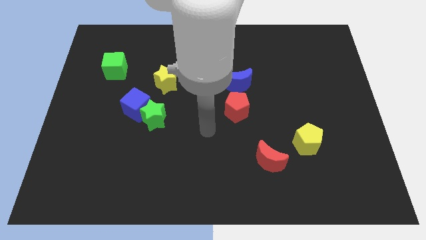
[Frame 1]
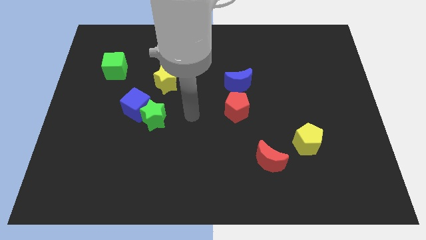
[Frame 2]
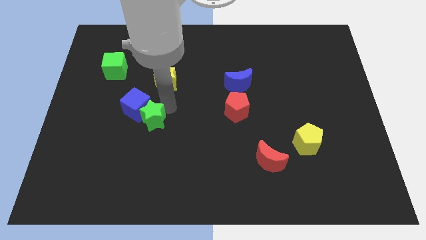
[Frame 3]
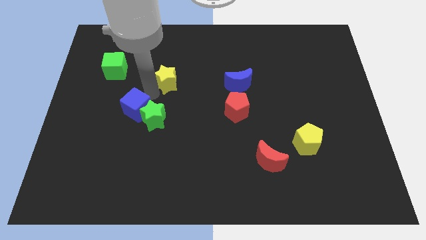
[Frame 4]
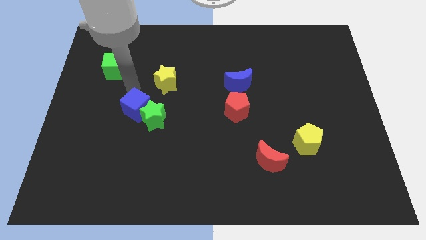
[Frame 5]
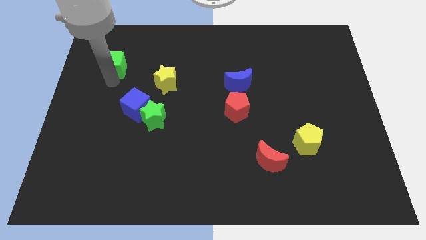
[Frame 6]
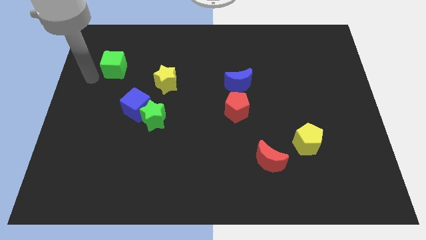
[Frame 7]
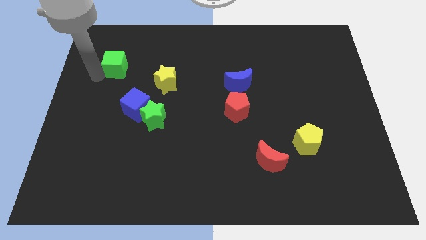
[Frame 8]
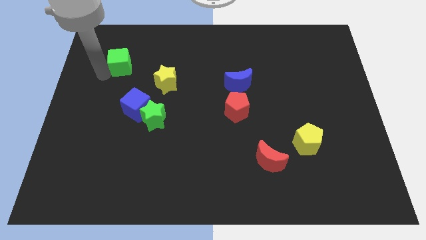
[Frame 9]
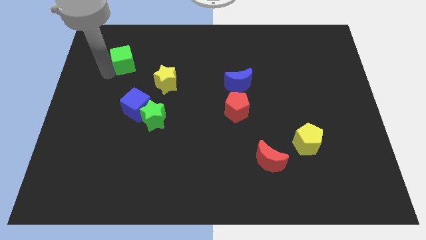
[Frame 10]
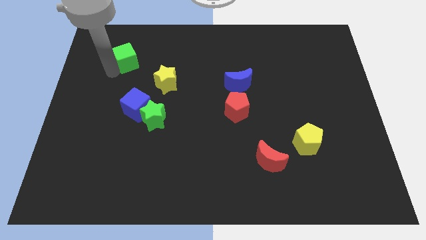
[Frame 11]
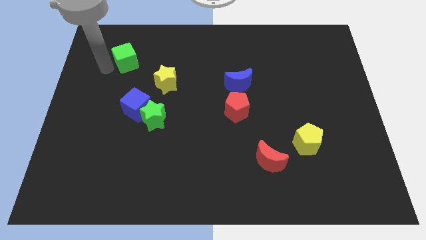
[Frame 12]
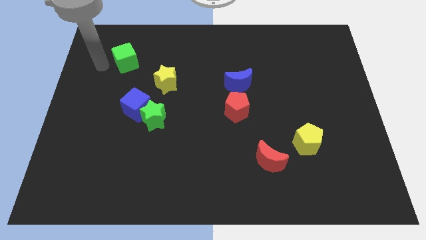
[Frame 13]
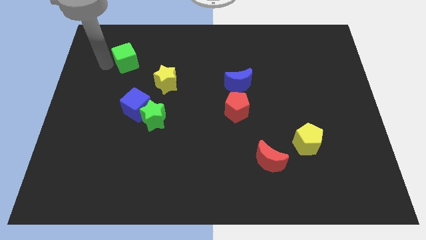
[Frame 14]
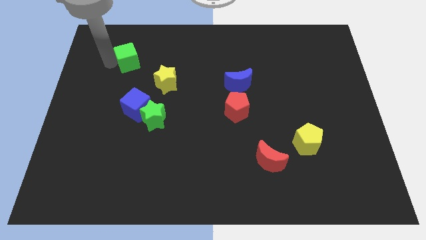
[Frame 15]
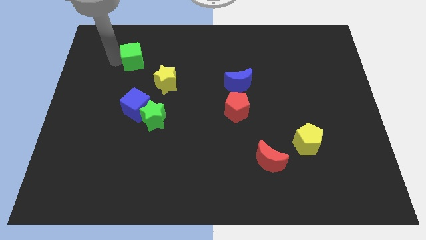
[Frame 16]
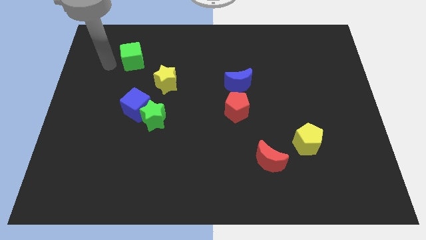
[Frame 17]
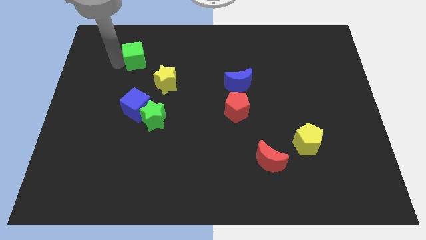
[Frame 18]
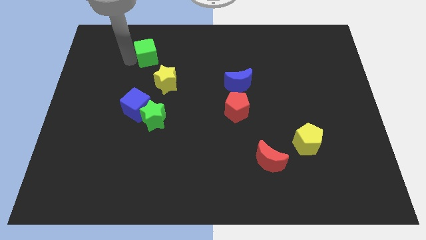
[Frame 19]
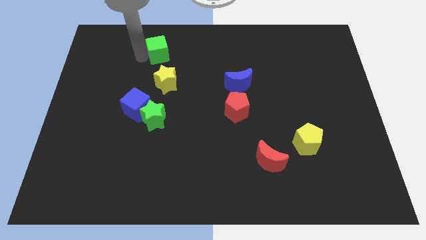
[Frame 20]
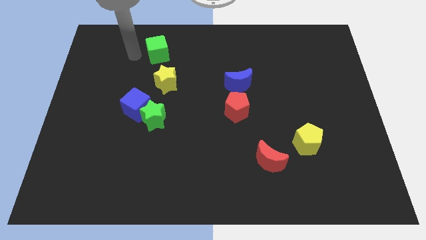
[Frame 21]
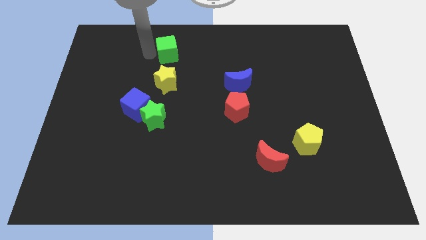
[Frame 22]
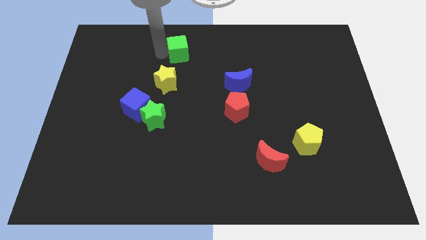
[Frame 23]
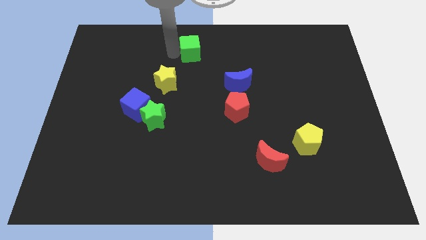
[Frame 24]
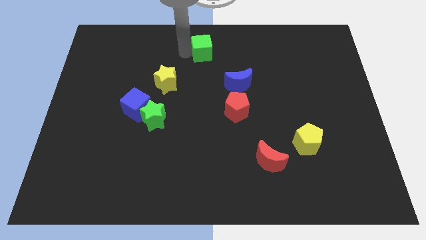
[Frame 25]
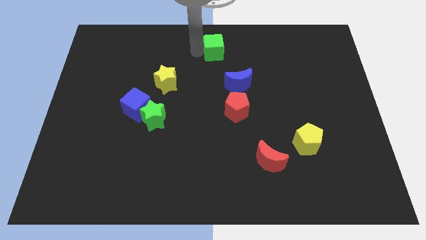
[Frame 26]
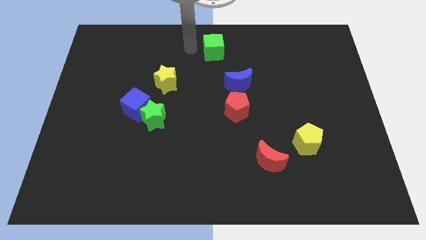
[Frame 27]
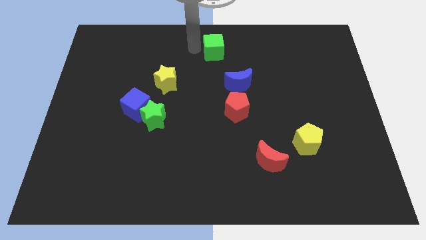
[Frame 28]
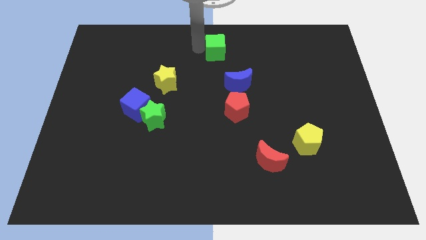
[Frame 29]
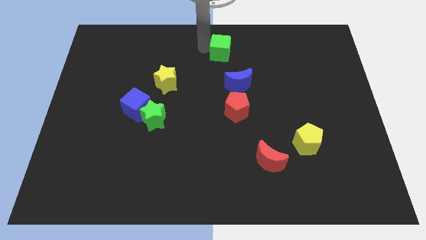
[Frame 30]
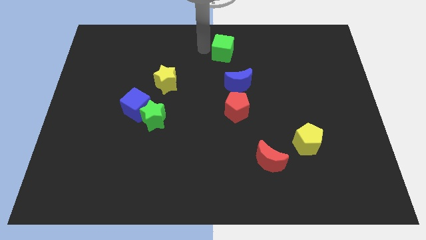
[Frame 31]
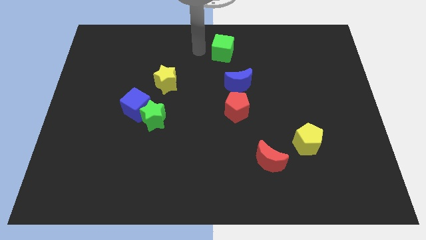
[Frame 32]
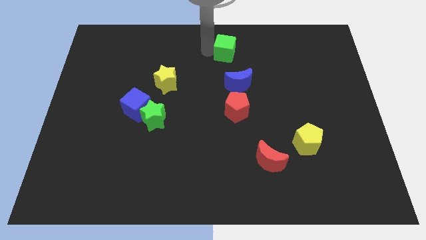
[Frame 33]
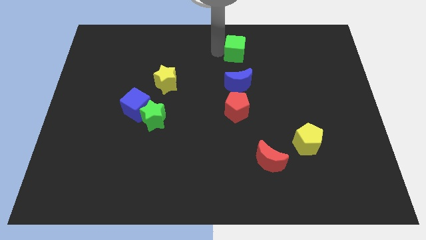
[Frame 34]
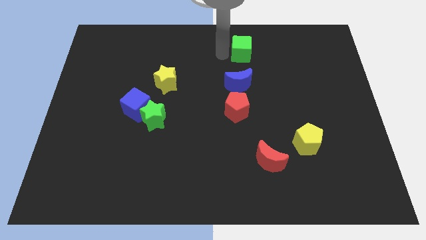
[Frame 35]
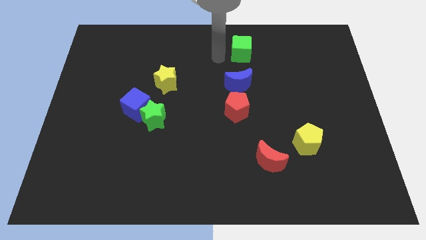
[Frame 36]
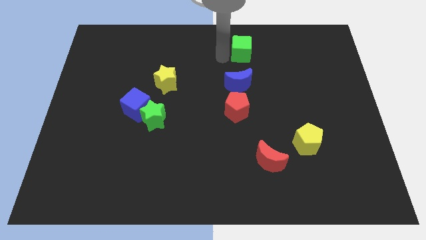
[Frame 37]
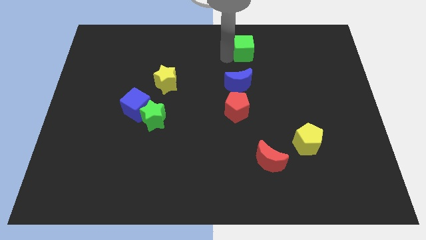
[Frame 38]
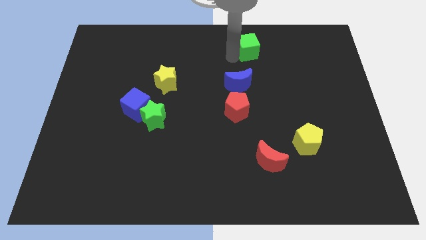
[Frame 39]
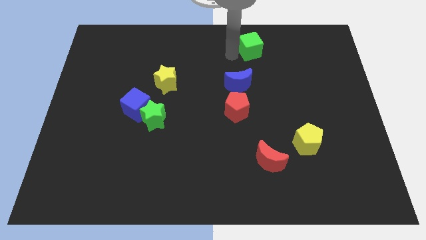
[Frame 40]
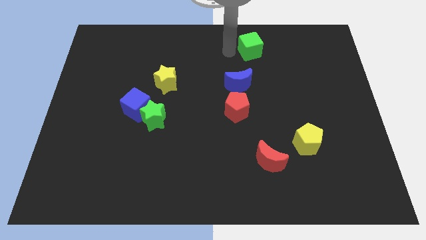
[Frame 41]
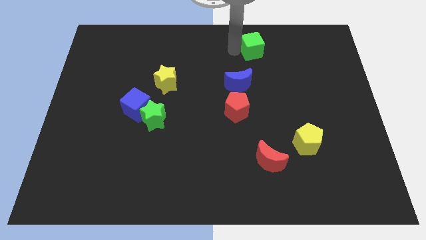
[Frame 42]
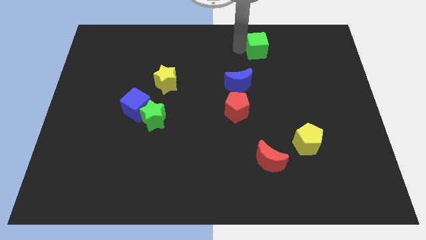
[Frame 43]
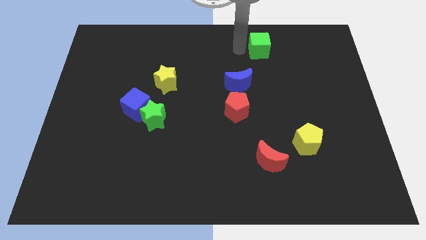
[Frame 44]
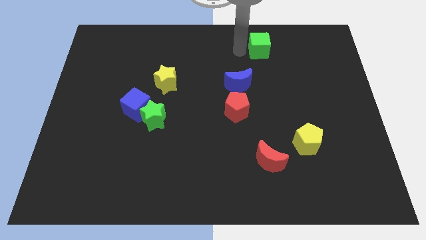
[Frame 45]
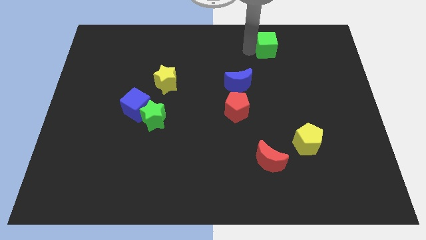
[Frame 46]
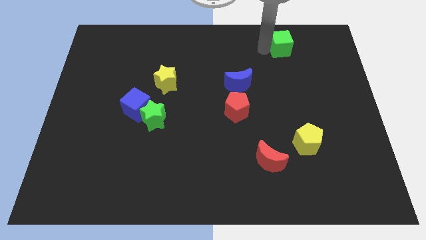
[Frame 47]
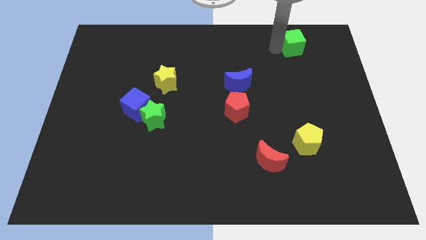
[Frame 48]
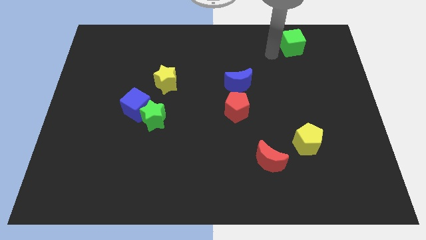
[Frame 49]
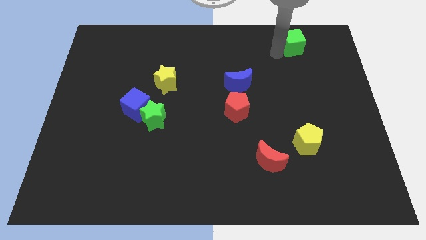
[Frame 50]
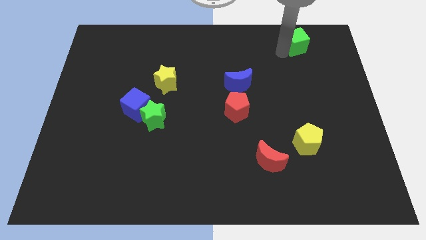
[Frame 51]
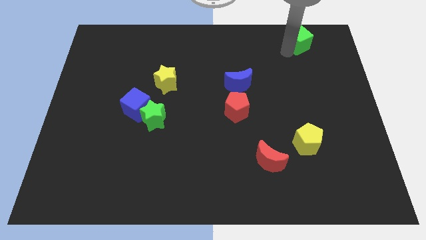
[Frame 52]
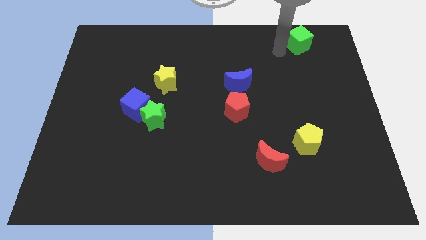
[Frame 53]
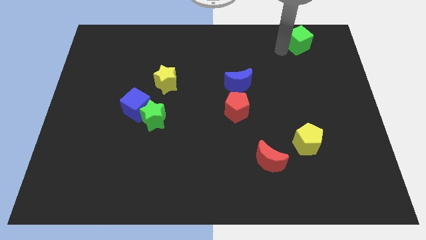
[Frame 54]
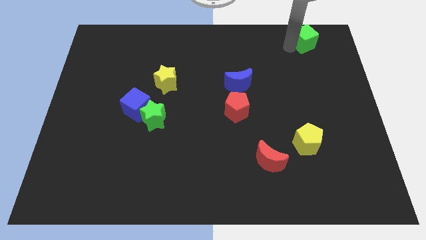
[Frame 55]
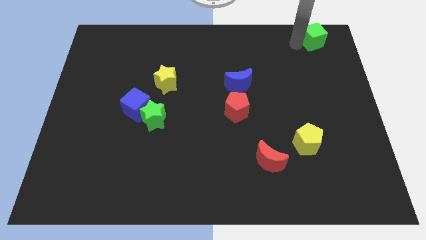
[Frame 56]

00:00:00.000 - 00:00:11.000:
slide the green cube to the top right corner

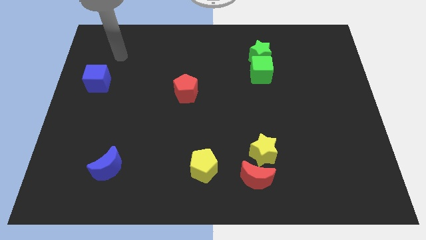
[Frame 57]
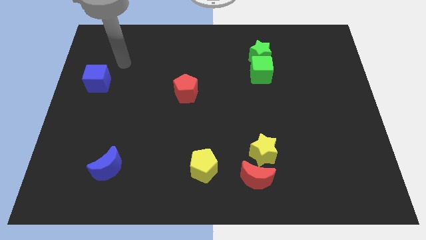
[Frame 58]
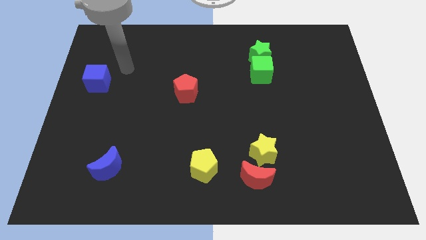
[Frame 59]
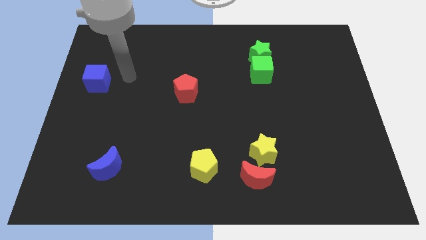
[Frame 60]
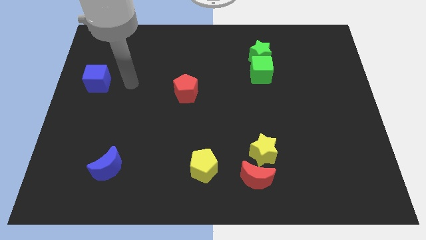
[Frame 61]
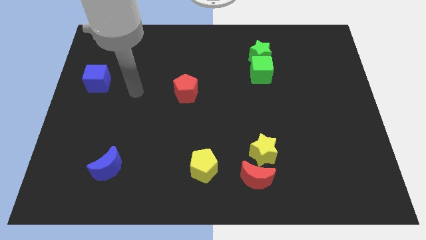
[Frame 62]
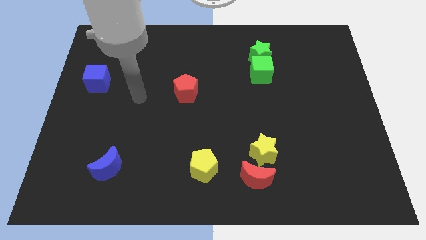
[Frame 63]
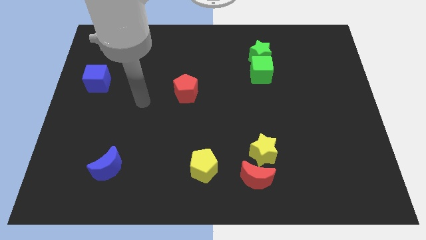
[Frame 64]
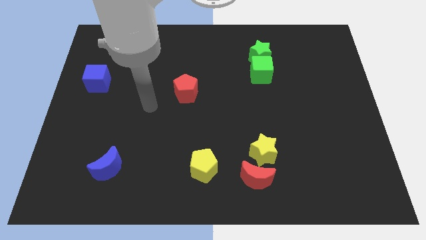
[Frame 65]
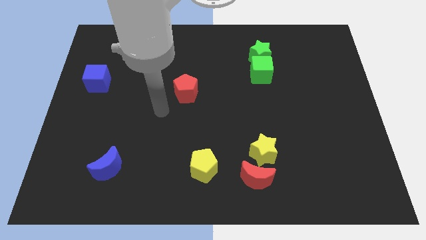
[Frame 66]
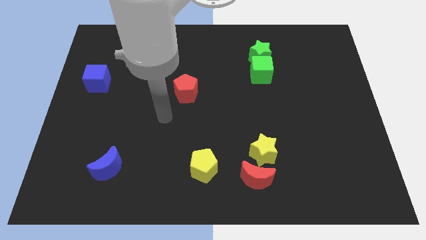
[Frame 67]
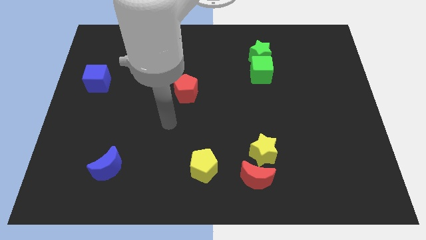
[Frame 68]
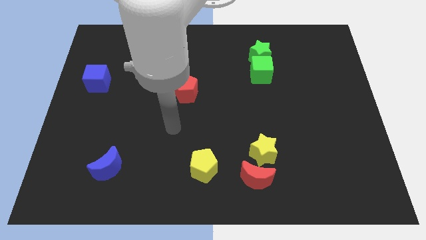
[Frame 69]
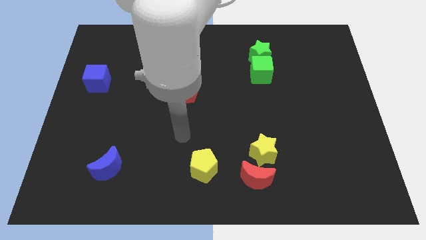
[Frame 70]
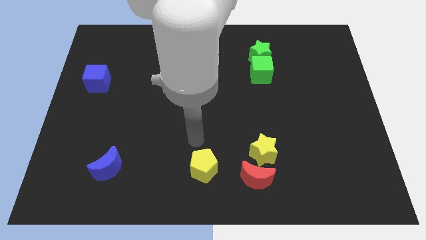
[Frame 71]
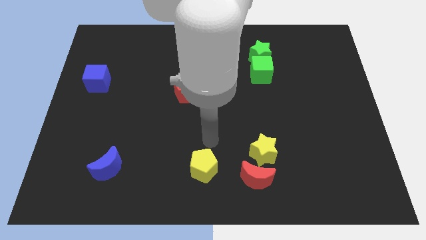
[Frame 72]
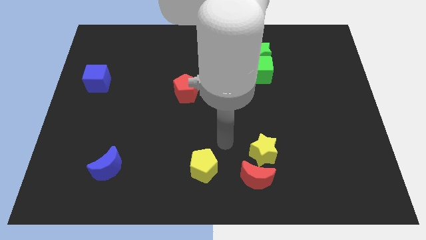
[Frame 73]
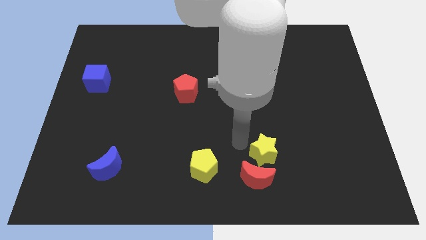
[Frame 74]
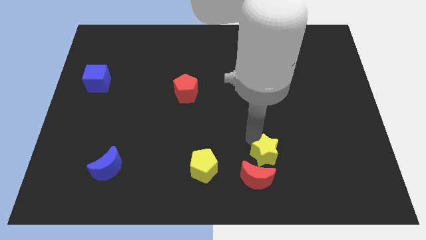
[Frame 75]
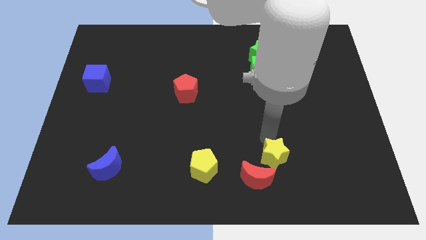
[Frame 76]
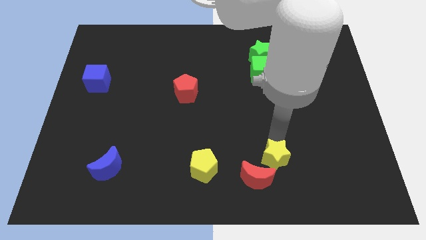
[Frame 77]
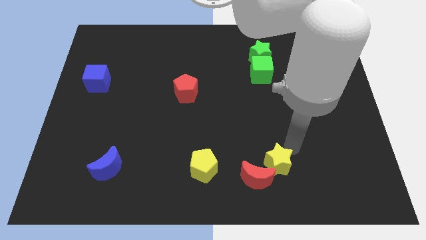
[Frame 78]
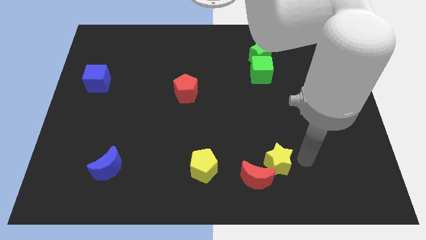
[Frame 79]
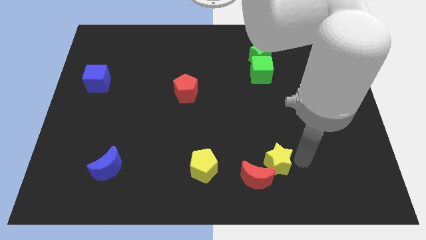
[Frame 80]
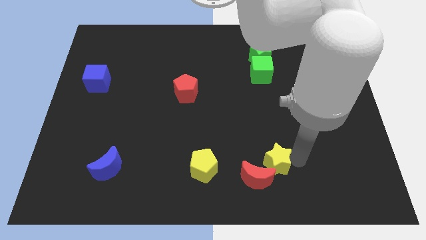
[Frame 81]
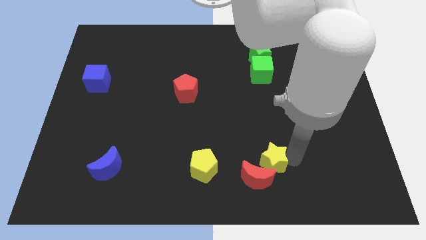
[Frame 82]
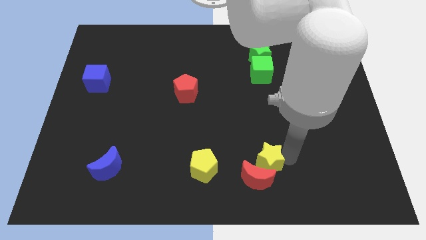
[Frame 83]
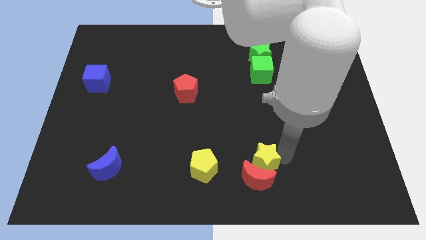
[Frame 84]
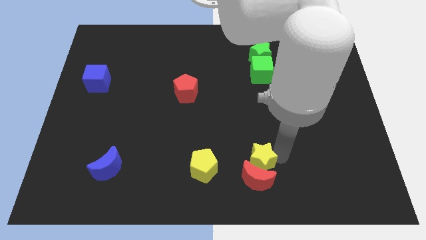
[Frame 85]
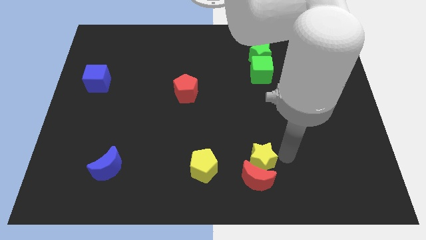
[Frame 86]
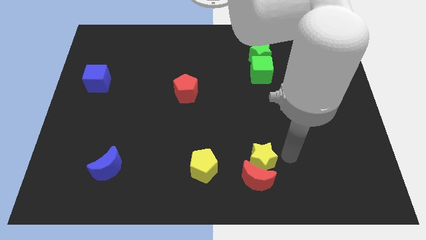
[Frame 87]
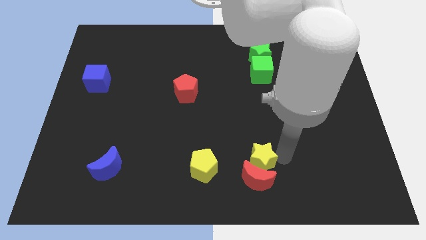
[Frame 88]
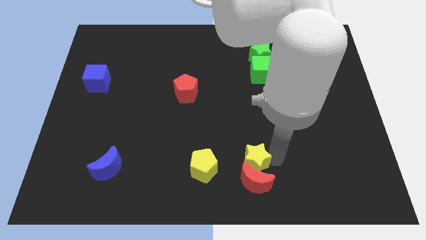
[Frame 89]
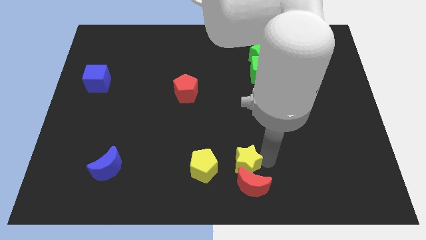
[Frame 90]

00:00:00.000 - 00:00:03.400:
move the yellow star to the bottom
